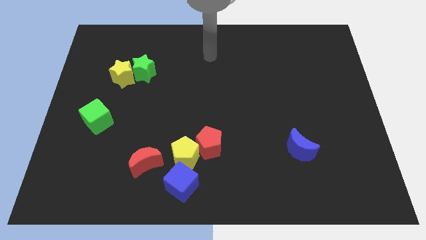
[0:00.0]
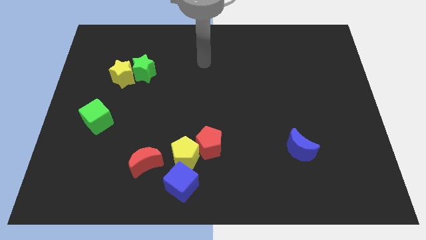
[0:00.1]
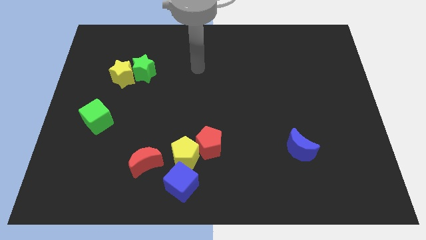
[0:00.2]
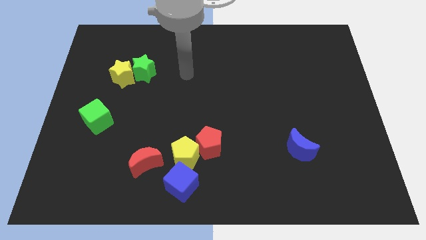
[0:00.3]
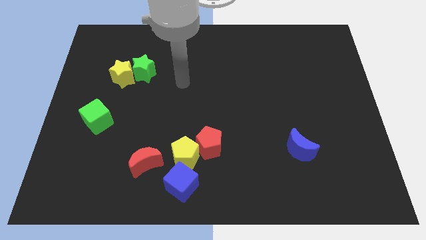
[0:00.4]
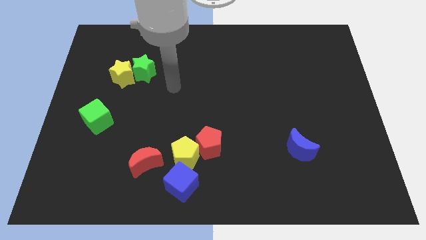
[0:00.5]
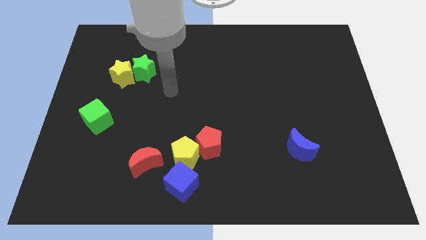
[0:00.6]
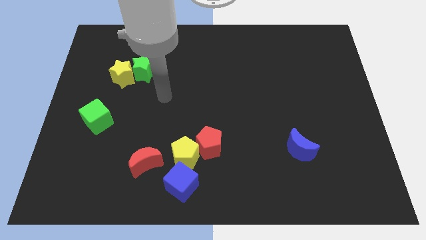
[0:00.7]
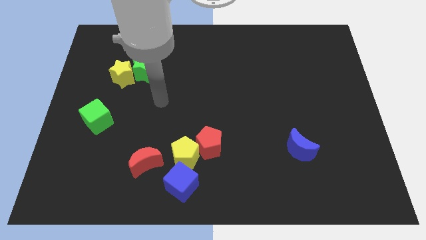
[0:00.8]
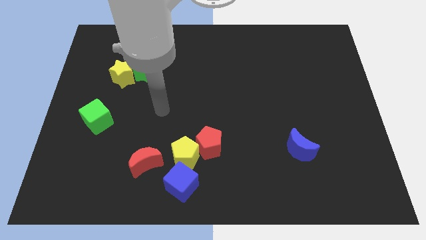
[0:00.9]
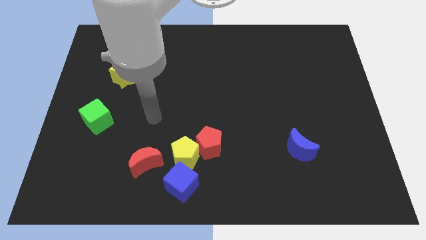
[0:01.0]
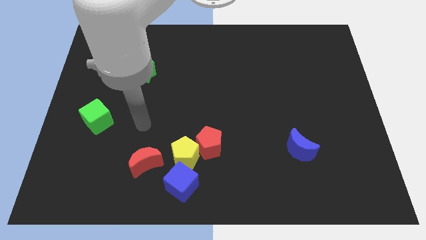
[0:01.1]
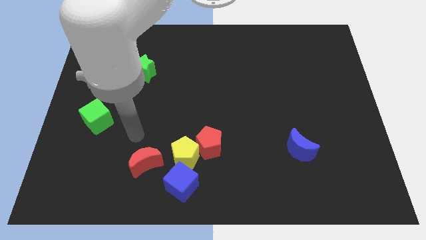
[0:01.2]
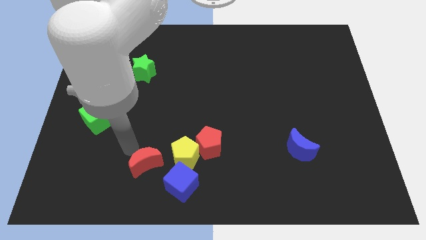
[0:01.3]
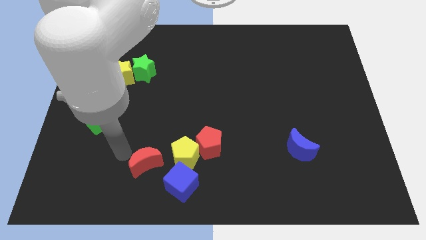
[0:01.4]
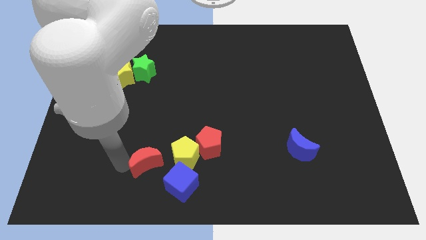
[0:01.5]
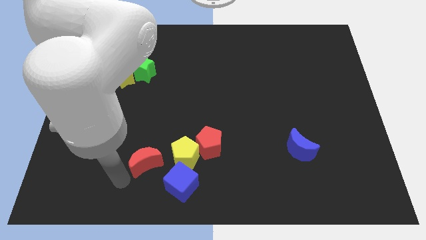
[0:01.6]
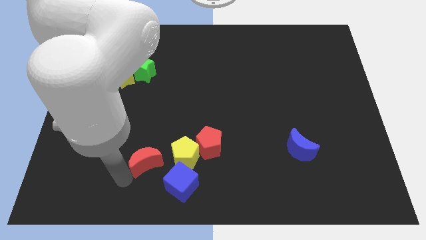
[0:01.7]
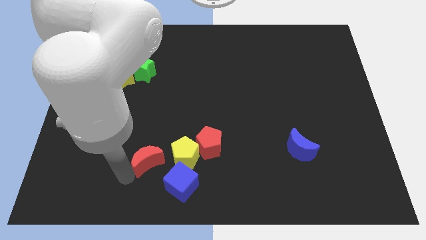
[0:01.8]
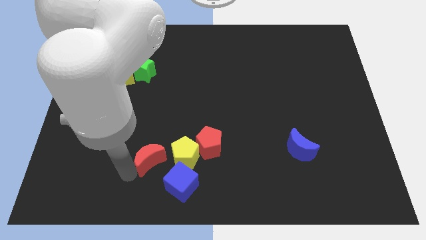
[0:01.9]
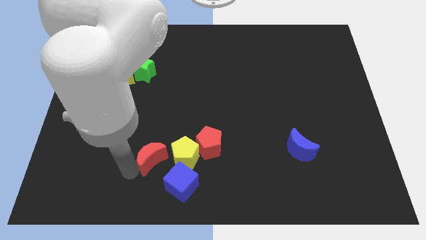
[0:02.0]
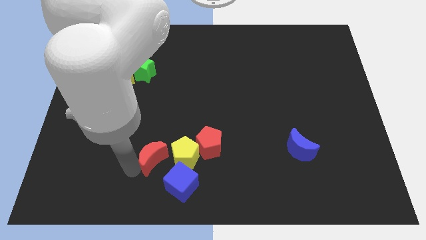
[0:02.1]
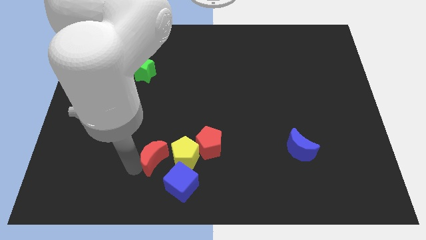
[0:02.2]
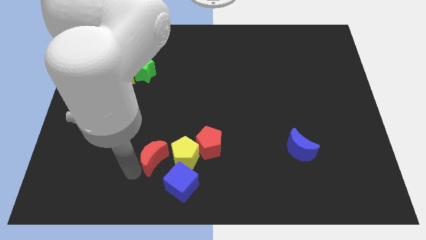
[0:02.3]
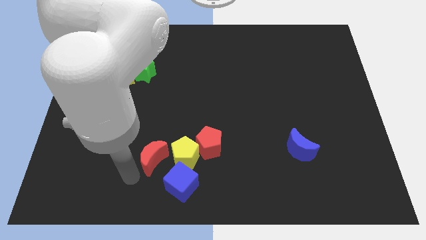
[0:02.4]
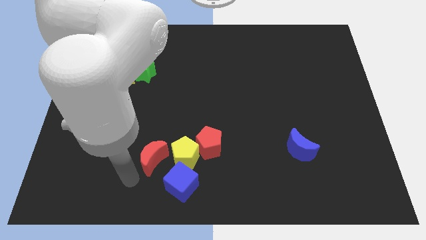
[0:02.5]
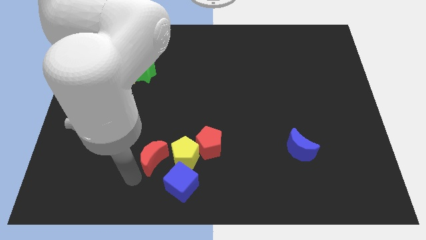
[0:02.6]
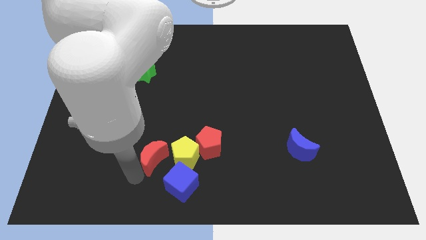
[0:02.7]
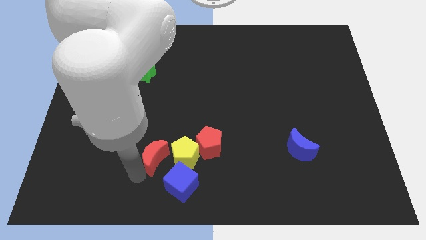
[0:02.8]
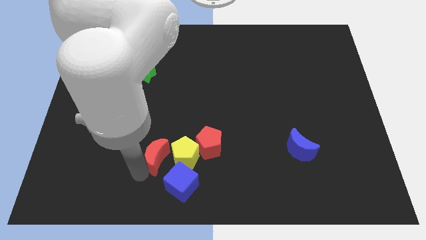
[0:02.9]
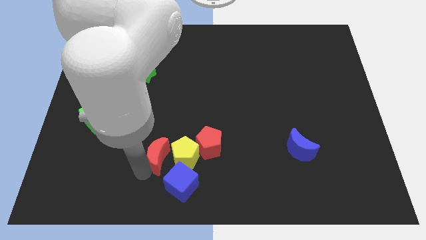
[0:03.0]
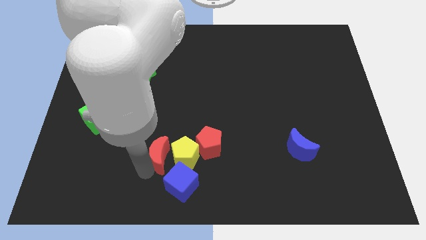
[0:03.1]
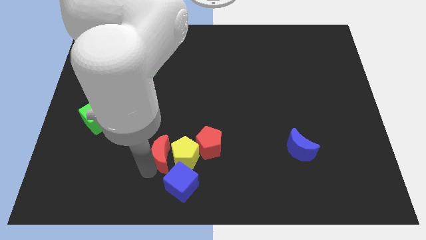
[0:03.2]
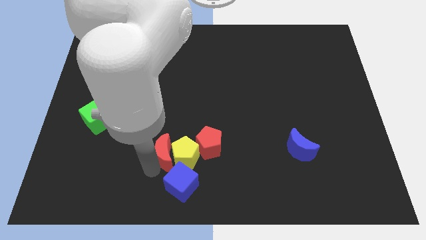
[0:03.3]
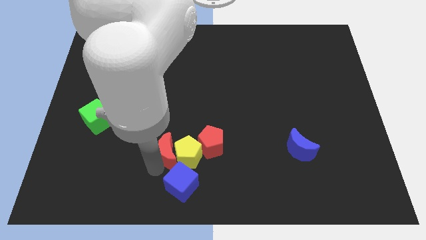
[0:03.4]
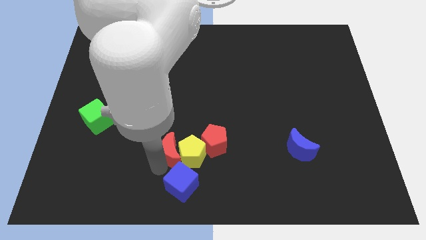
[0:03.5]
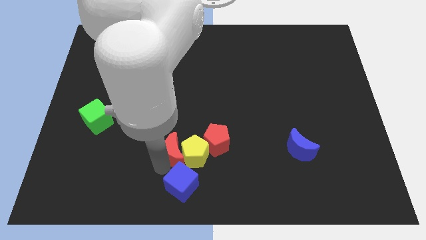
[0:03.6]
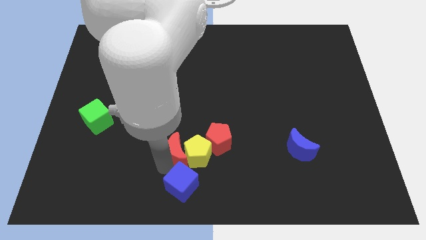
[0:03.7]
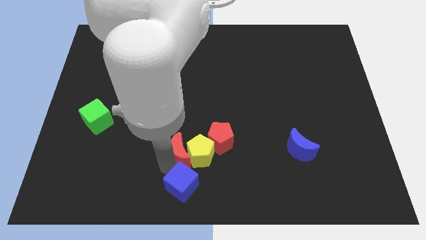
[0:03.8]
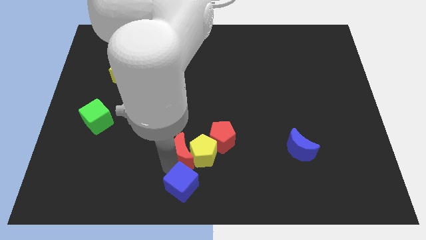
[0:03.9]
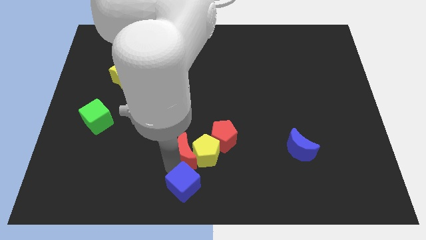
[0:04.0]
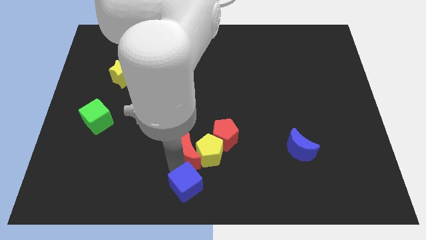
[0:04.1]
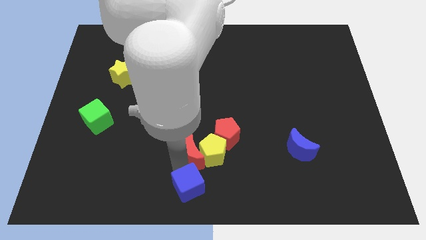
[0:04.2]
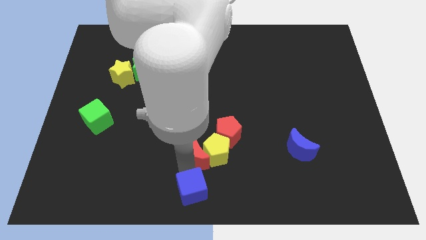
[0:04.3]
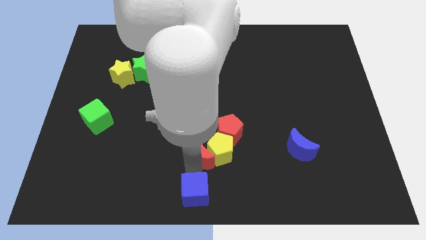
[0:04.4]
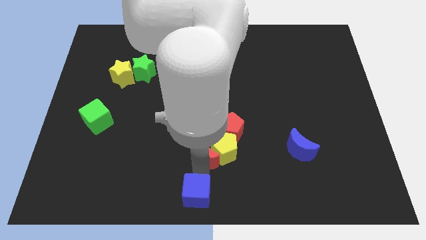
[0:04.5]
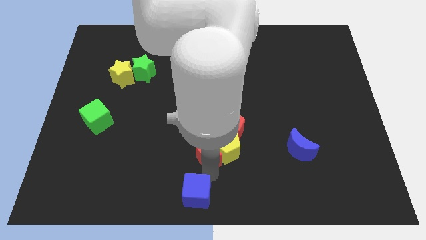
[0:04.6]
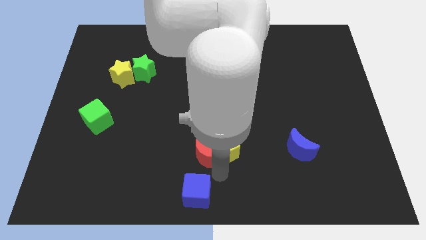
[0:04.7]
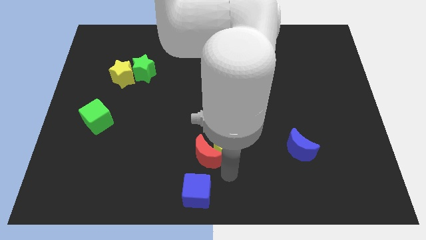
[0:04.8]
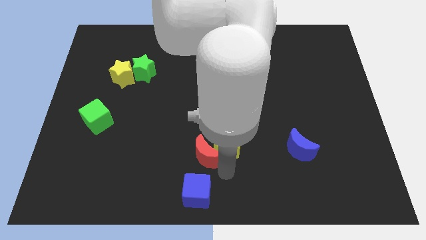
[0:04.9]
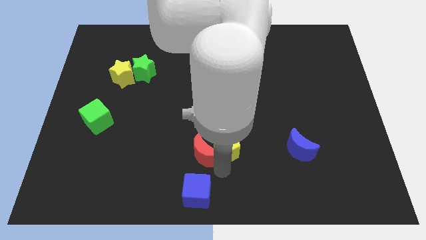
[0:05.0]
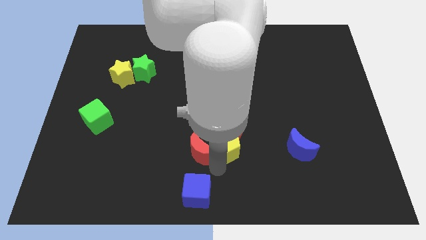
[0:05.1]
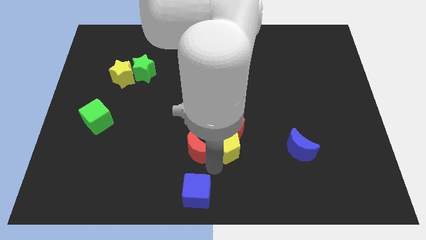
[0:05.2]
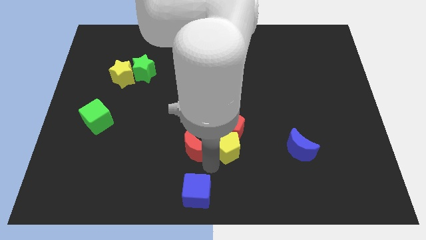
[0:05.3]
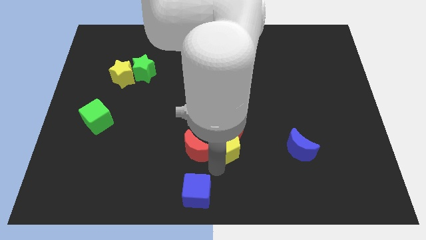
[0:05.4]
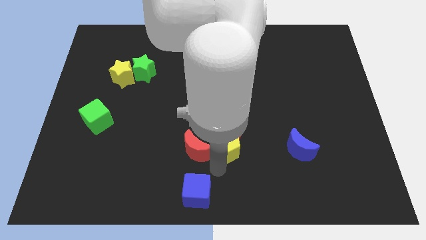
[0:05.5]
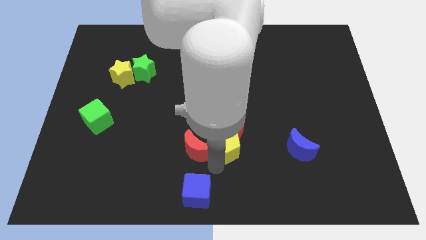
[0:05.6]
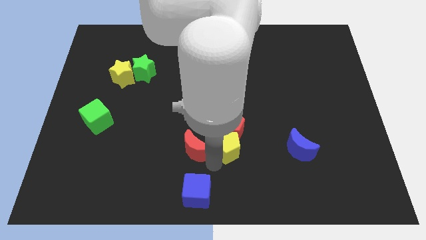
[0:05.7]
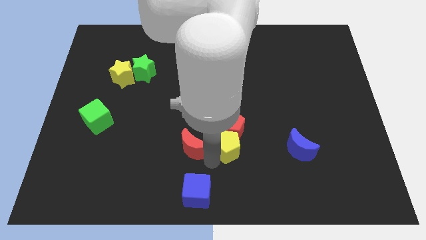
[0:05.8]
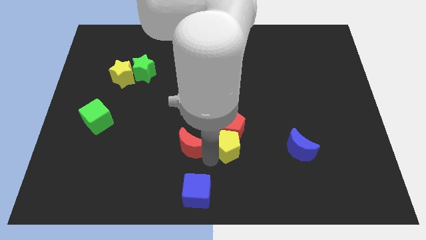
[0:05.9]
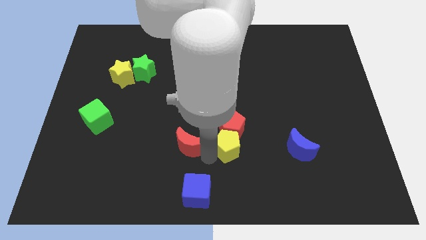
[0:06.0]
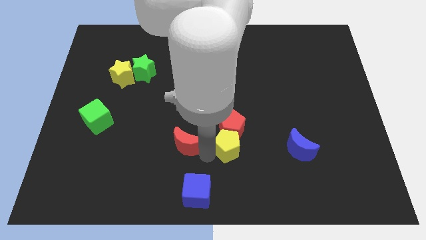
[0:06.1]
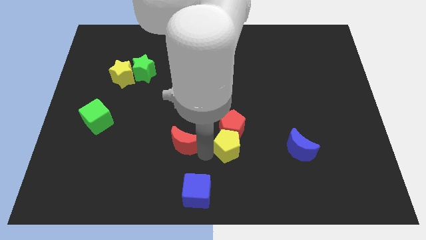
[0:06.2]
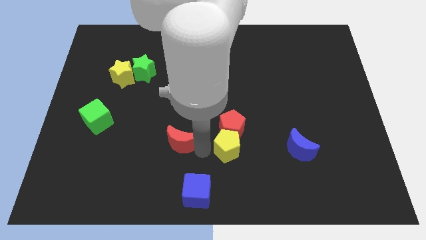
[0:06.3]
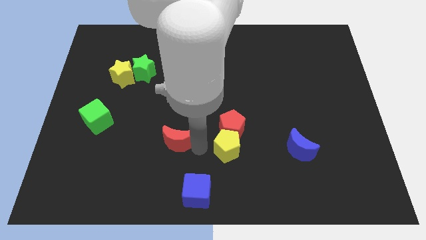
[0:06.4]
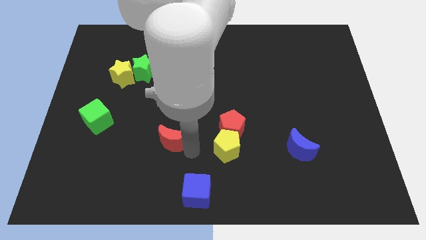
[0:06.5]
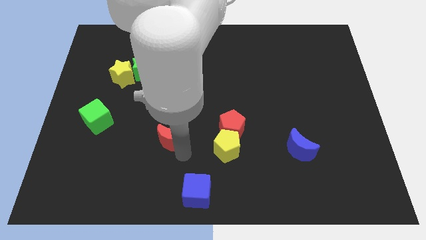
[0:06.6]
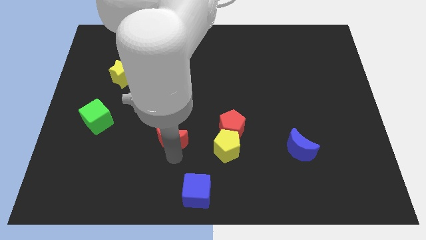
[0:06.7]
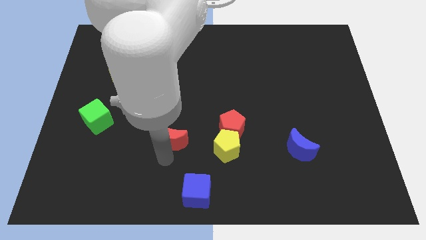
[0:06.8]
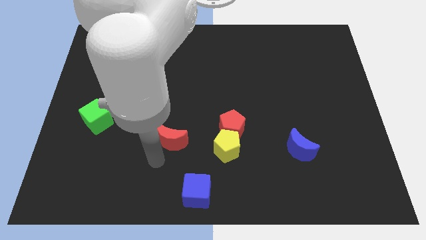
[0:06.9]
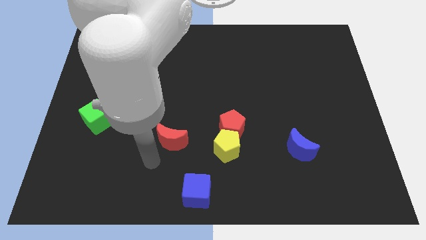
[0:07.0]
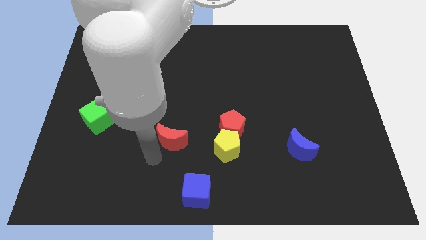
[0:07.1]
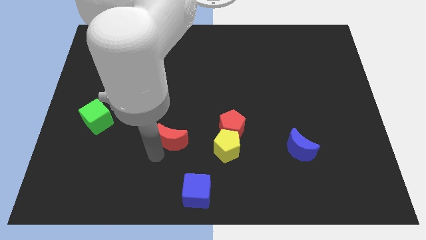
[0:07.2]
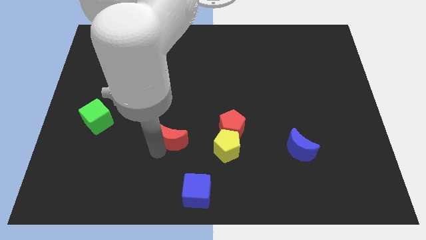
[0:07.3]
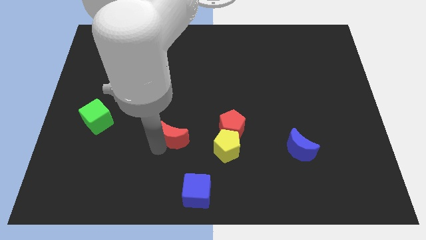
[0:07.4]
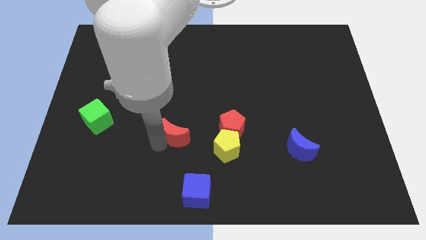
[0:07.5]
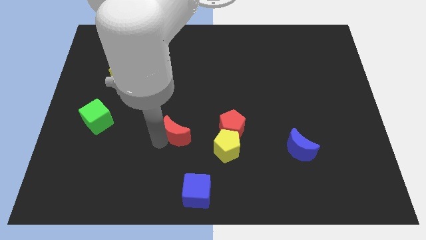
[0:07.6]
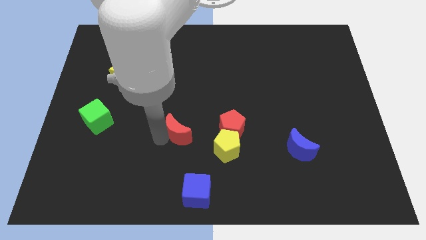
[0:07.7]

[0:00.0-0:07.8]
put the red moon to the middle of the board
